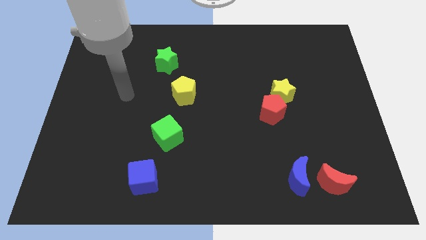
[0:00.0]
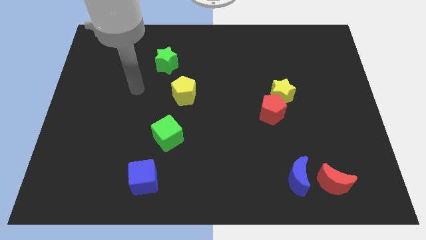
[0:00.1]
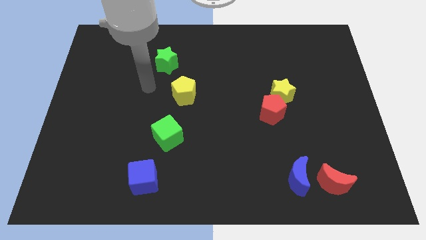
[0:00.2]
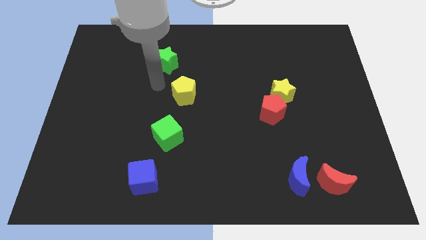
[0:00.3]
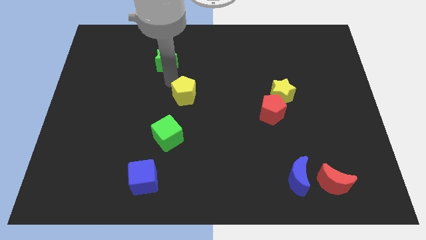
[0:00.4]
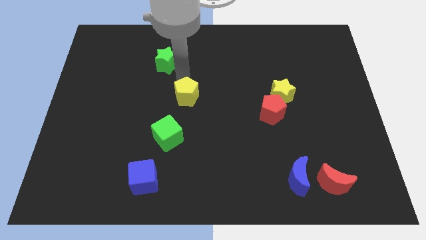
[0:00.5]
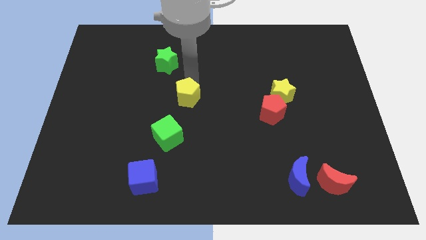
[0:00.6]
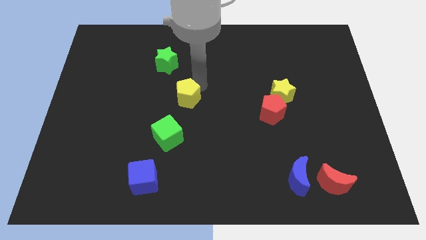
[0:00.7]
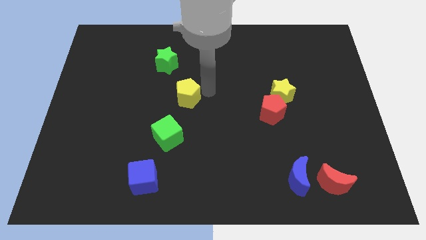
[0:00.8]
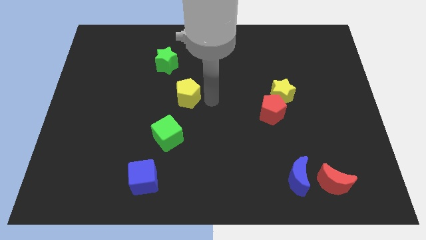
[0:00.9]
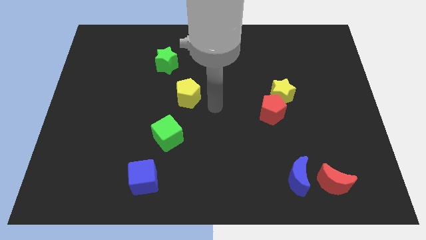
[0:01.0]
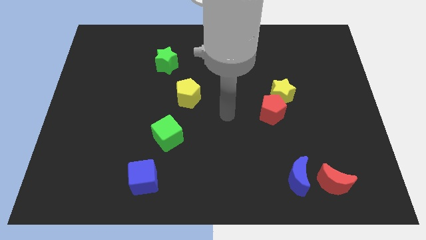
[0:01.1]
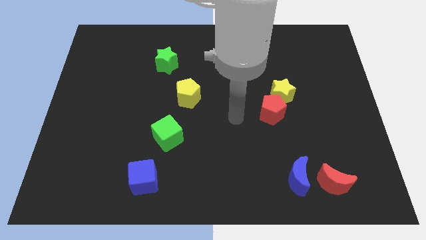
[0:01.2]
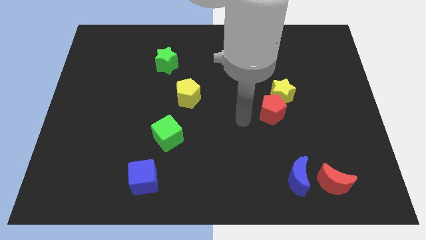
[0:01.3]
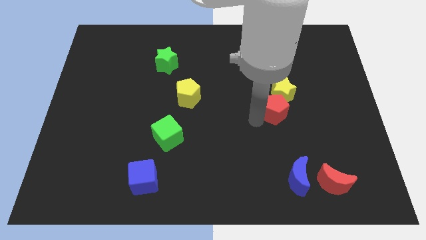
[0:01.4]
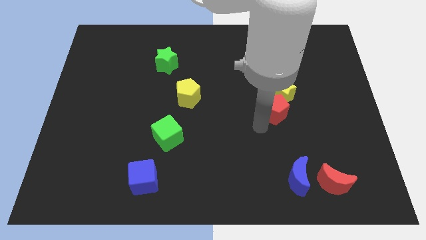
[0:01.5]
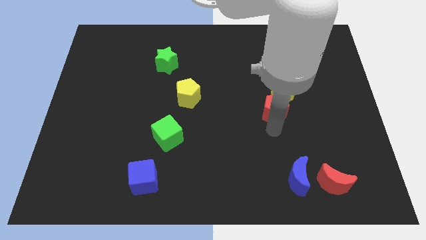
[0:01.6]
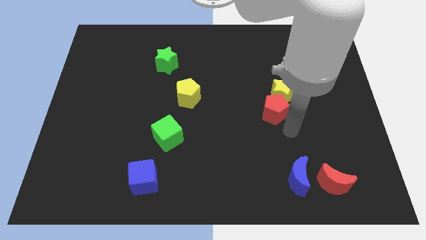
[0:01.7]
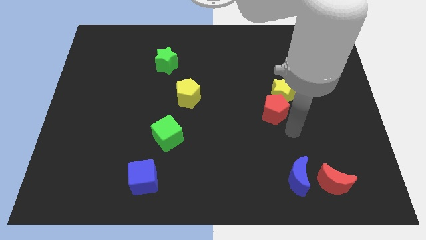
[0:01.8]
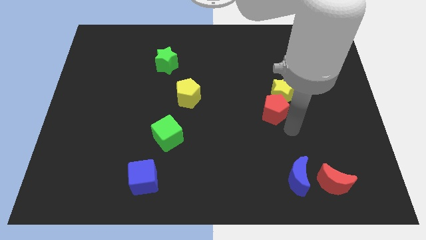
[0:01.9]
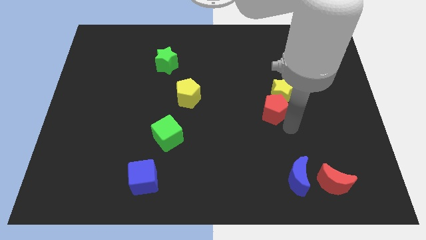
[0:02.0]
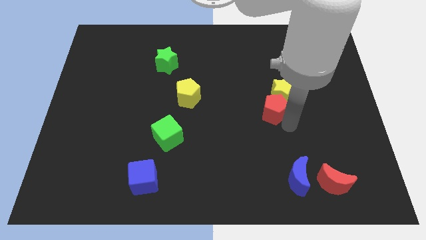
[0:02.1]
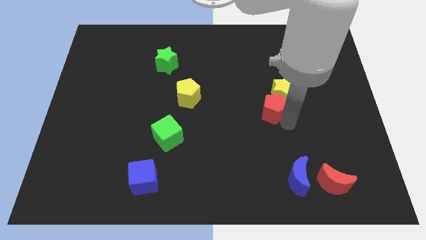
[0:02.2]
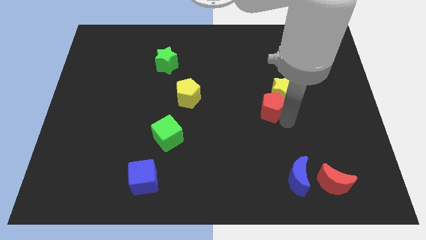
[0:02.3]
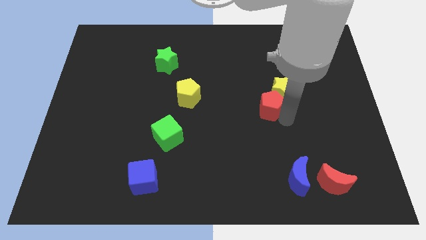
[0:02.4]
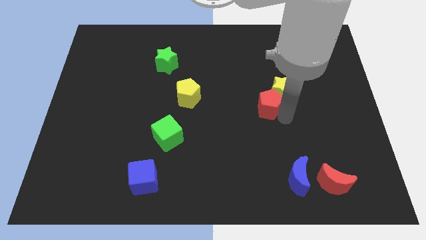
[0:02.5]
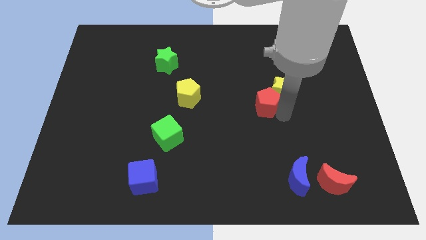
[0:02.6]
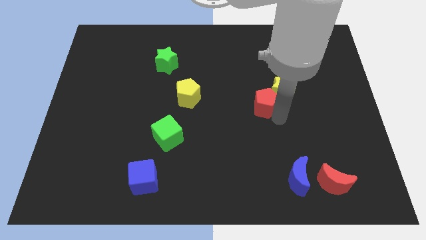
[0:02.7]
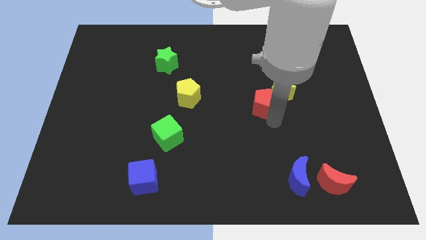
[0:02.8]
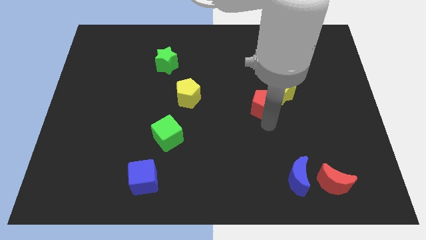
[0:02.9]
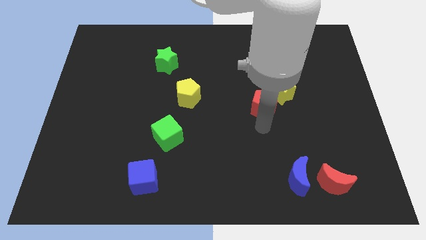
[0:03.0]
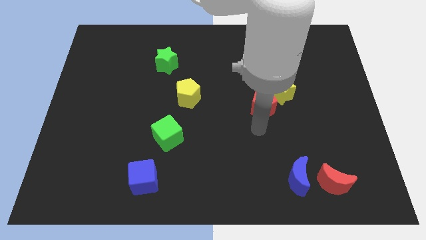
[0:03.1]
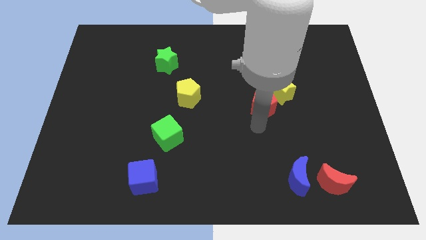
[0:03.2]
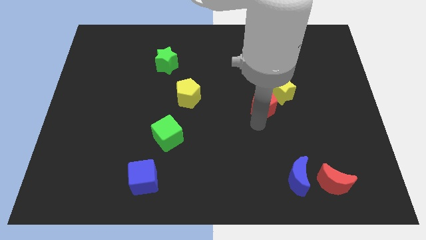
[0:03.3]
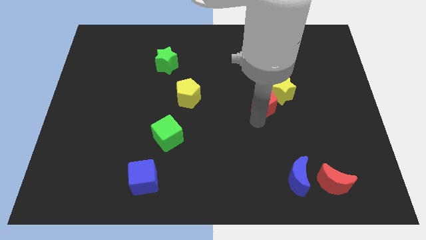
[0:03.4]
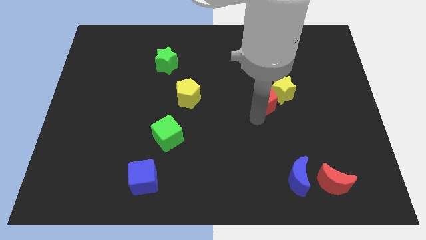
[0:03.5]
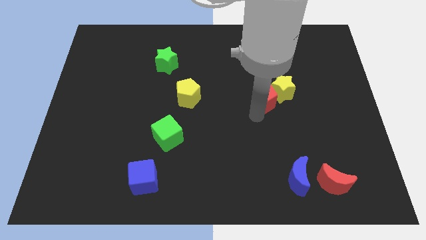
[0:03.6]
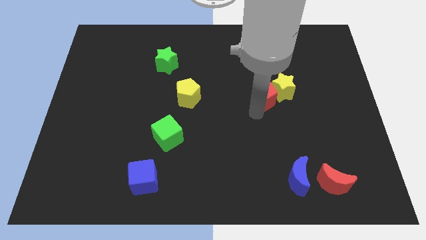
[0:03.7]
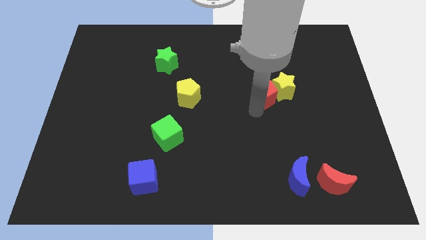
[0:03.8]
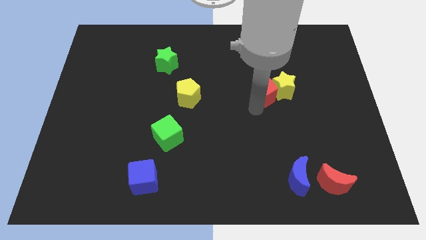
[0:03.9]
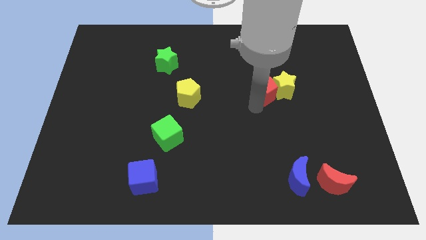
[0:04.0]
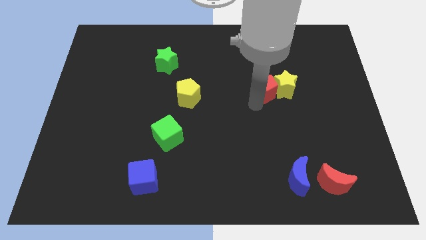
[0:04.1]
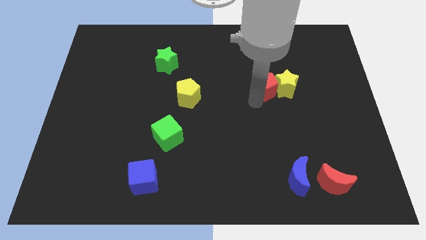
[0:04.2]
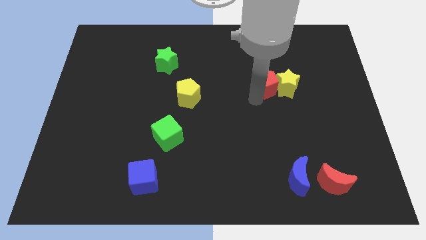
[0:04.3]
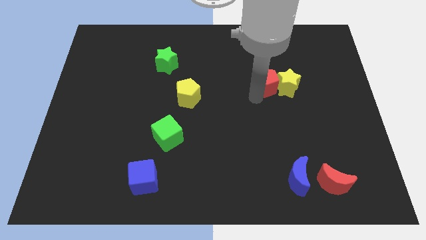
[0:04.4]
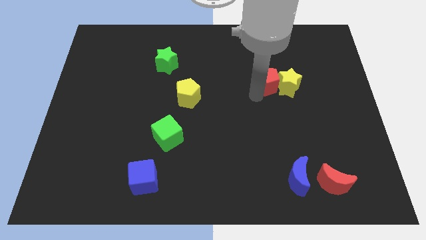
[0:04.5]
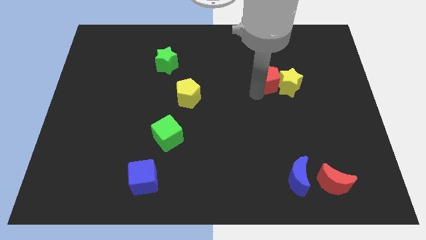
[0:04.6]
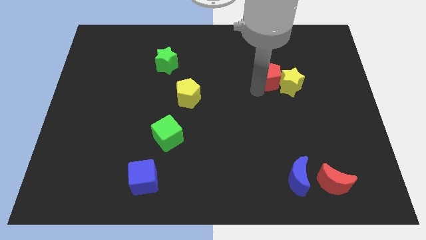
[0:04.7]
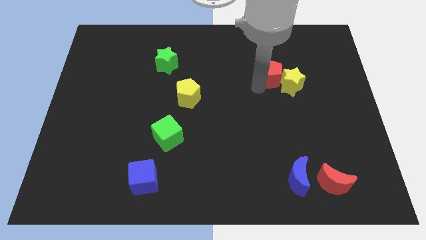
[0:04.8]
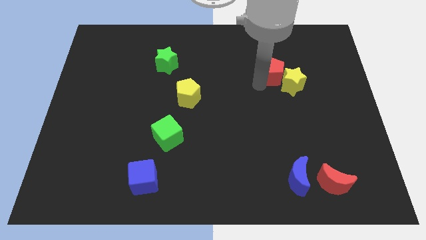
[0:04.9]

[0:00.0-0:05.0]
move the red pentagon above the yellow star

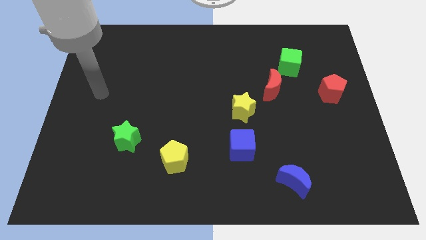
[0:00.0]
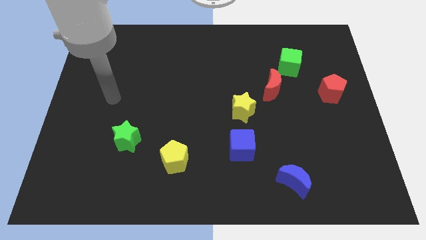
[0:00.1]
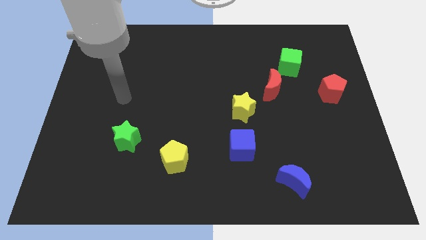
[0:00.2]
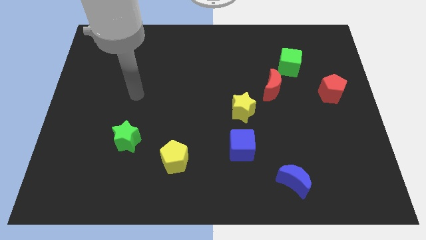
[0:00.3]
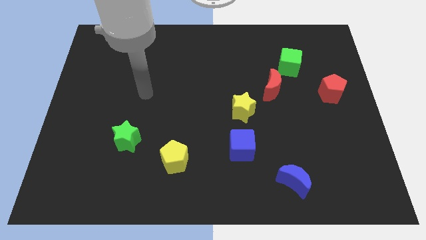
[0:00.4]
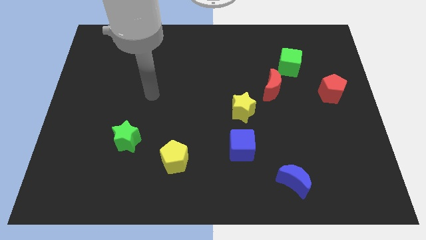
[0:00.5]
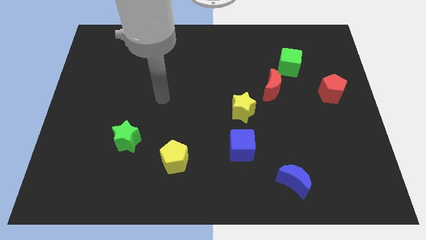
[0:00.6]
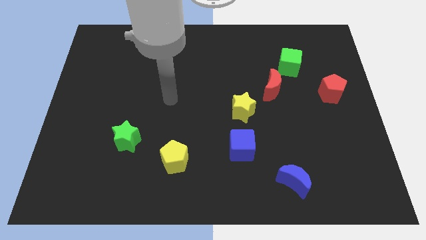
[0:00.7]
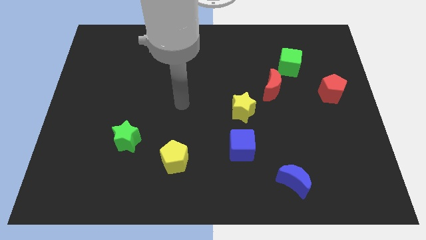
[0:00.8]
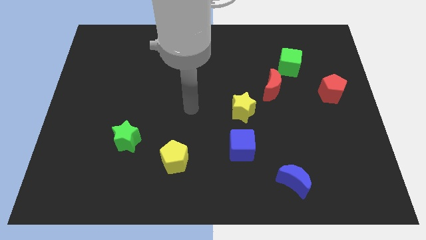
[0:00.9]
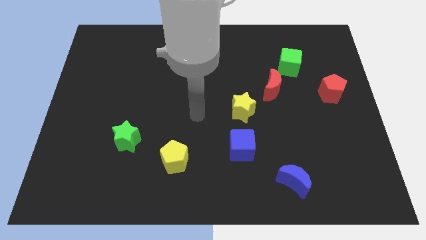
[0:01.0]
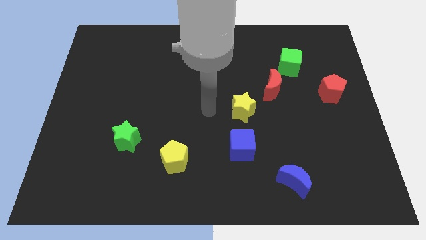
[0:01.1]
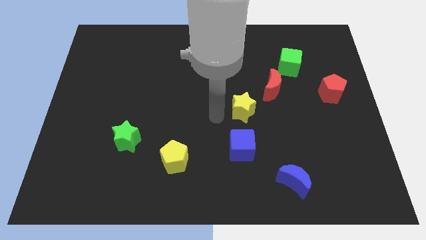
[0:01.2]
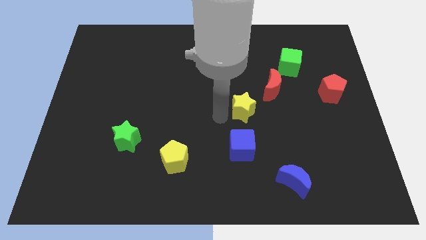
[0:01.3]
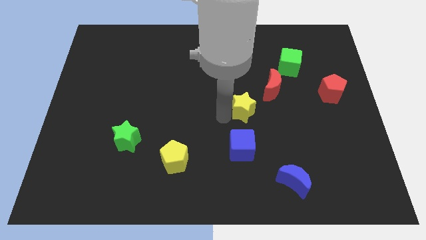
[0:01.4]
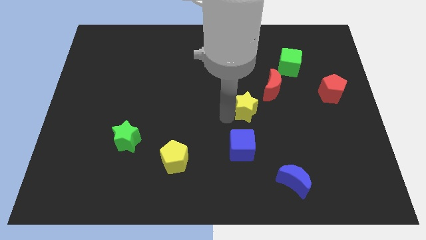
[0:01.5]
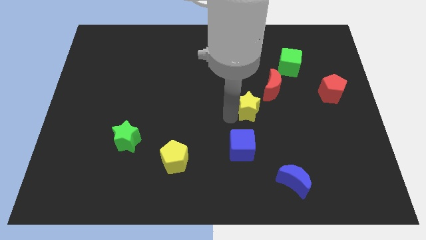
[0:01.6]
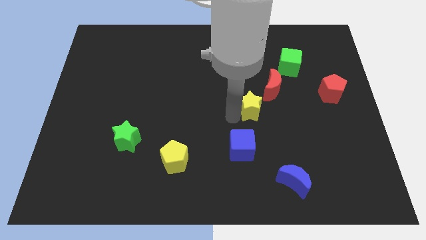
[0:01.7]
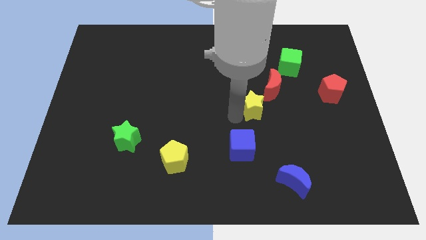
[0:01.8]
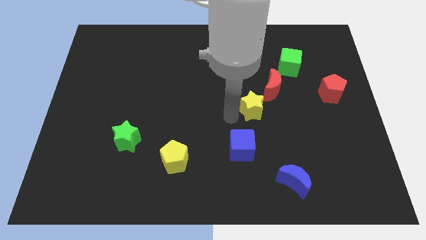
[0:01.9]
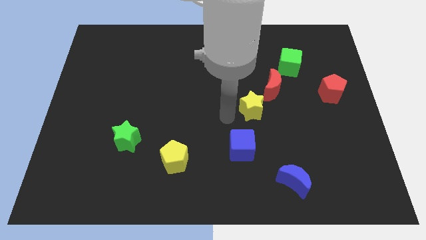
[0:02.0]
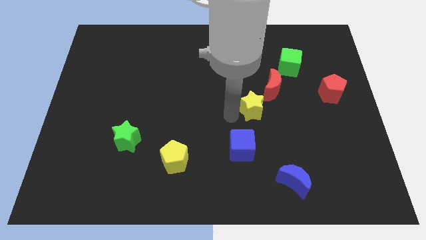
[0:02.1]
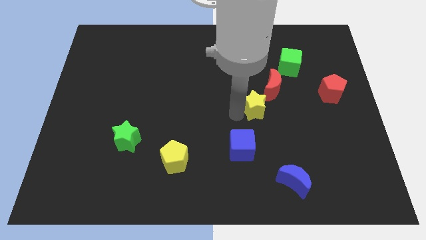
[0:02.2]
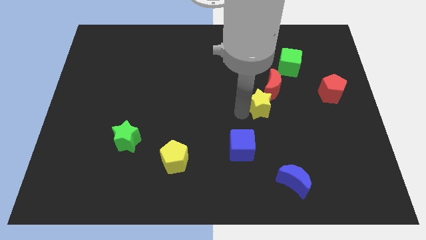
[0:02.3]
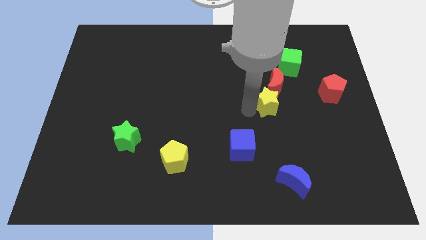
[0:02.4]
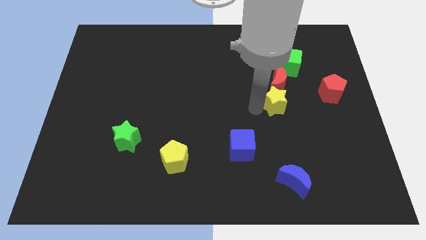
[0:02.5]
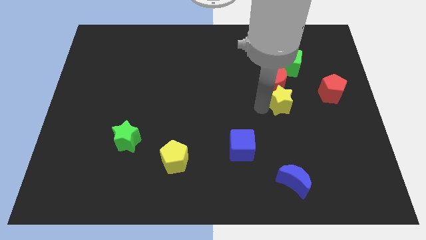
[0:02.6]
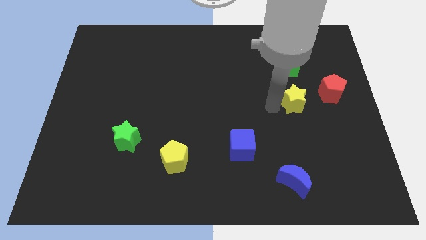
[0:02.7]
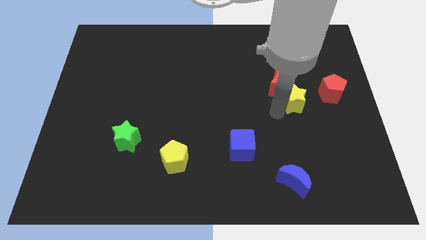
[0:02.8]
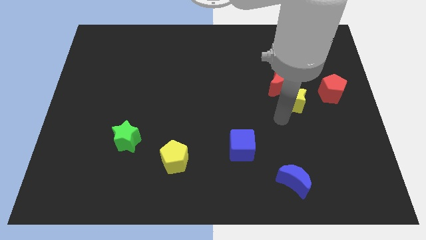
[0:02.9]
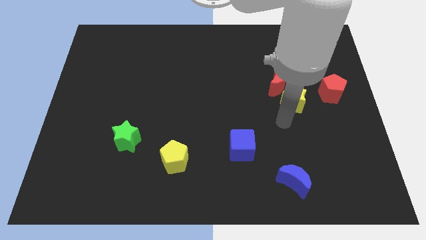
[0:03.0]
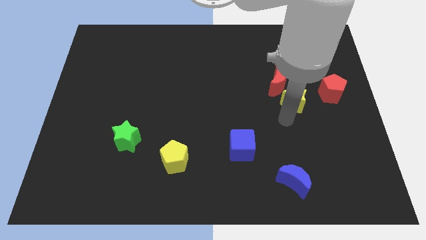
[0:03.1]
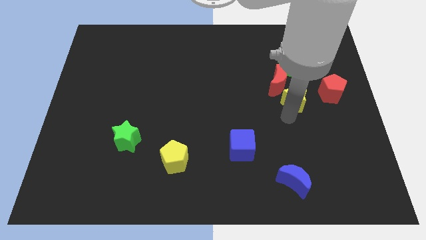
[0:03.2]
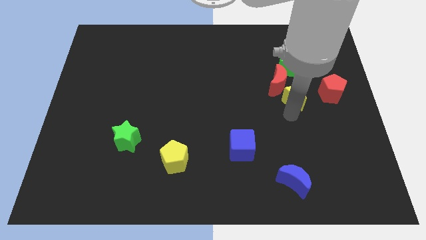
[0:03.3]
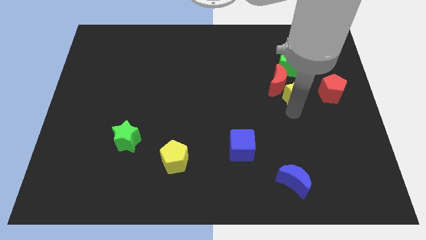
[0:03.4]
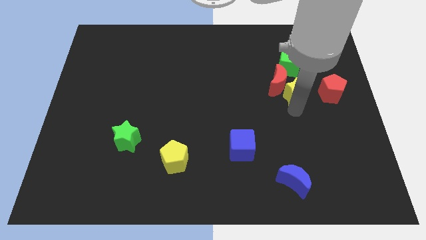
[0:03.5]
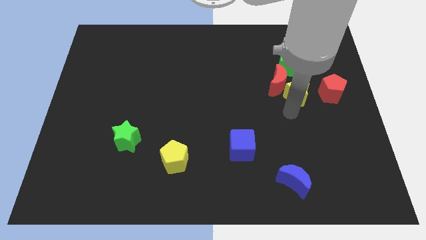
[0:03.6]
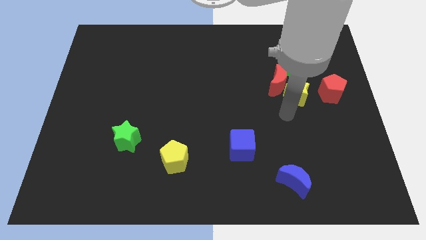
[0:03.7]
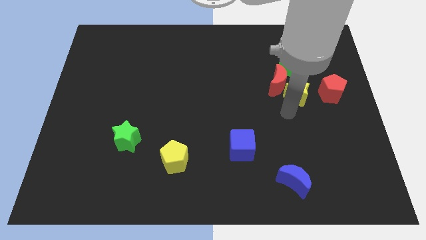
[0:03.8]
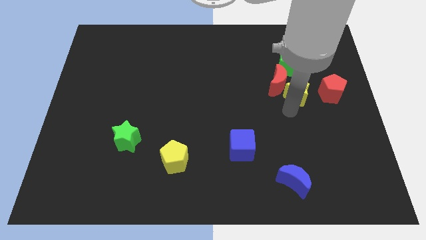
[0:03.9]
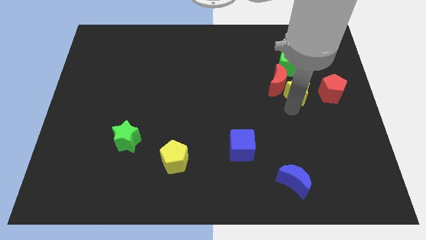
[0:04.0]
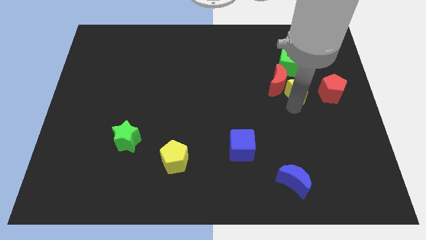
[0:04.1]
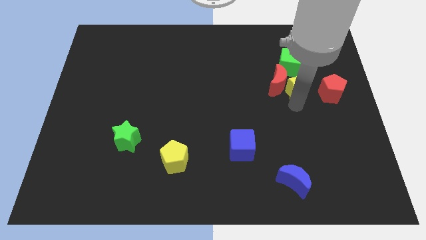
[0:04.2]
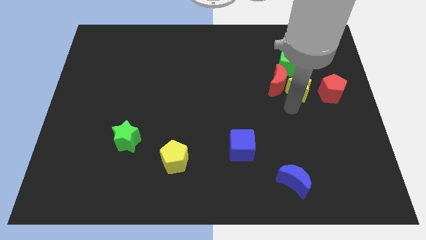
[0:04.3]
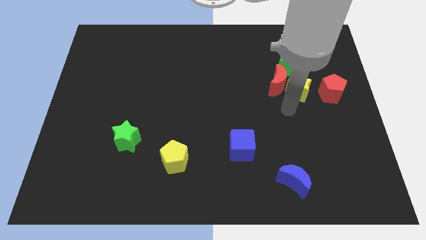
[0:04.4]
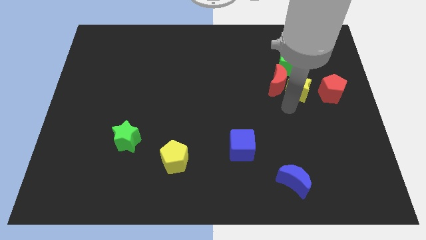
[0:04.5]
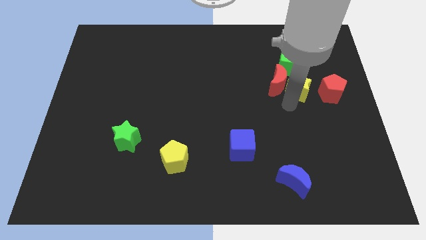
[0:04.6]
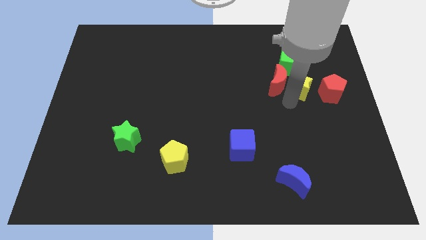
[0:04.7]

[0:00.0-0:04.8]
slide the yellow star diagonally up and to the left of the red pentagon
